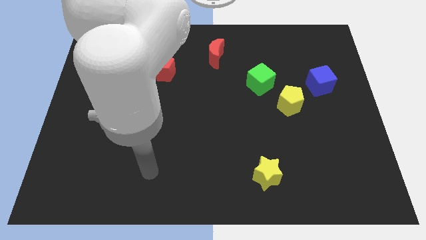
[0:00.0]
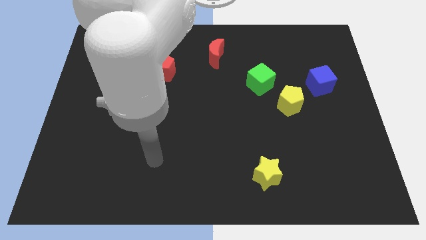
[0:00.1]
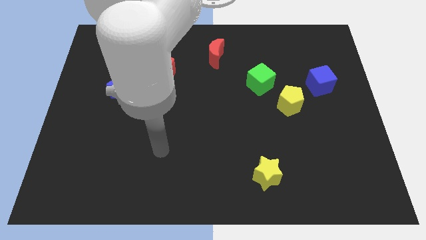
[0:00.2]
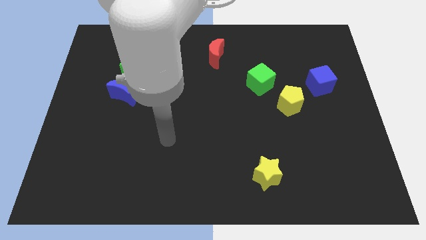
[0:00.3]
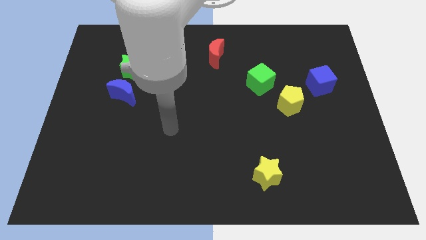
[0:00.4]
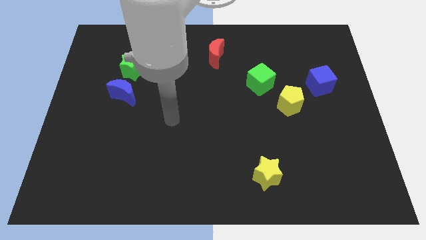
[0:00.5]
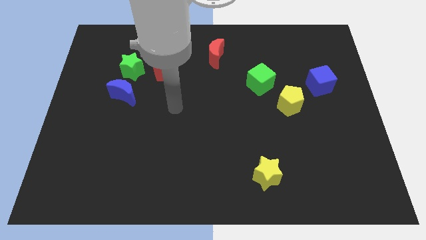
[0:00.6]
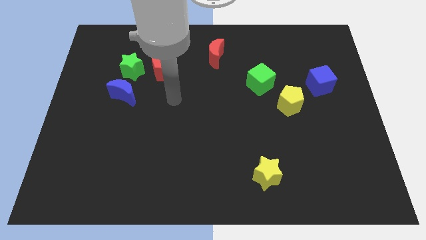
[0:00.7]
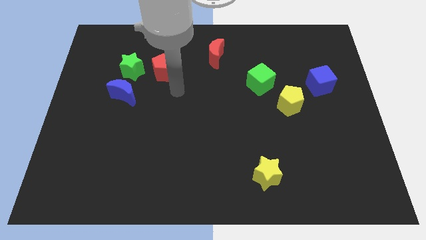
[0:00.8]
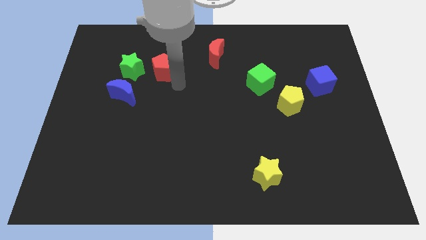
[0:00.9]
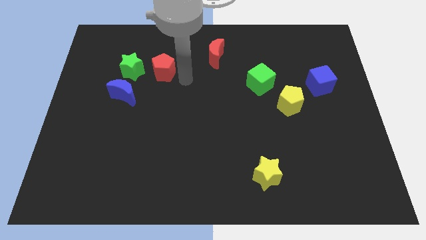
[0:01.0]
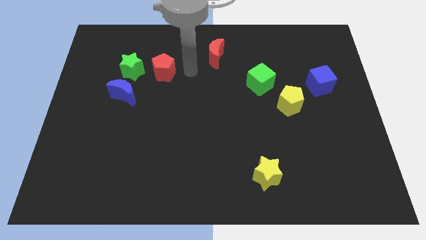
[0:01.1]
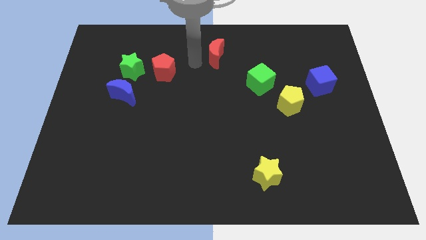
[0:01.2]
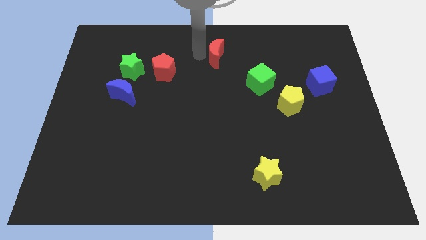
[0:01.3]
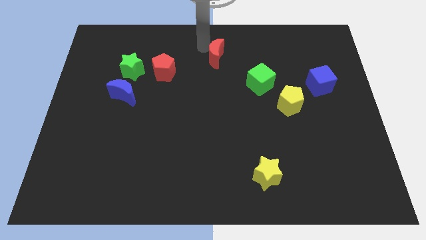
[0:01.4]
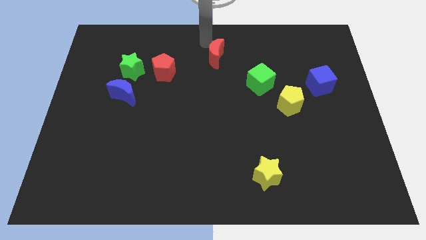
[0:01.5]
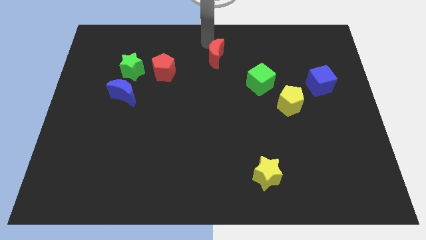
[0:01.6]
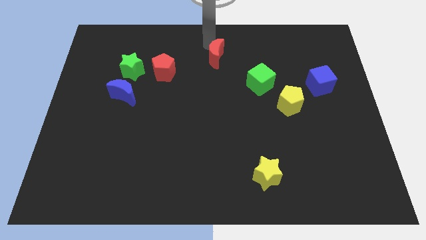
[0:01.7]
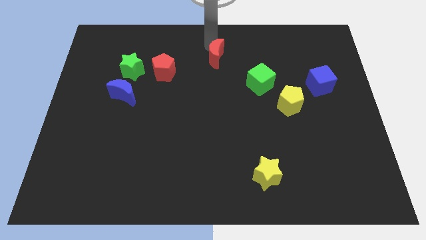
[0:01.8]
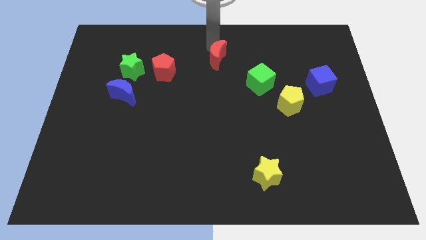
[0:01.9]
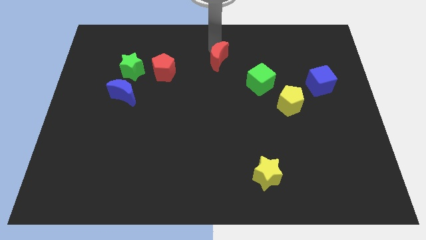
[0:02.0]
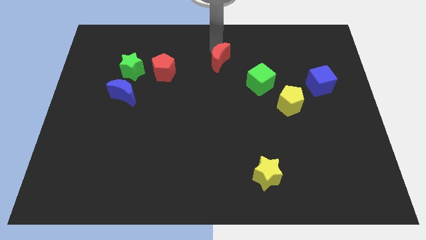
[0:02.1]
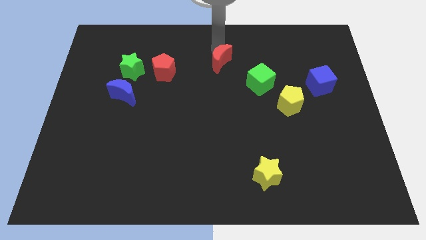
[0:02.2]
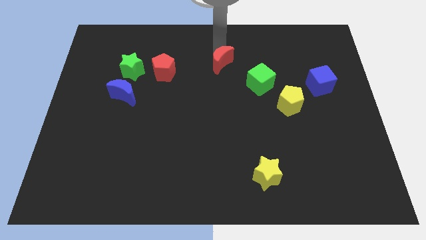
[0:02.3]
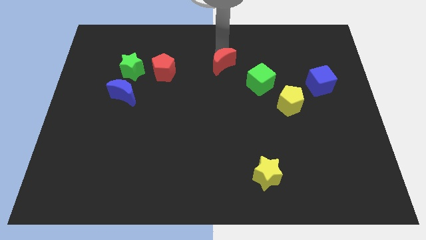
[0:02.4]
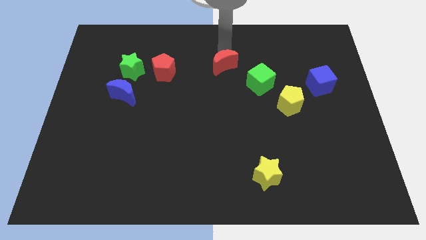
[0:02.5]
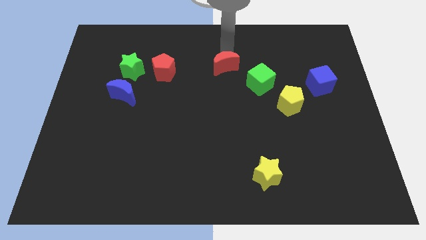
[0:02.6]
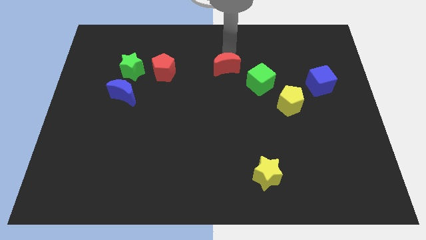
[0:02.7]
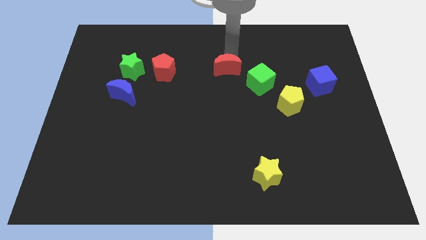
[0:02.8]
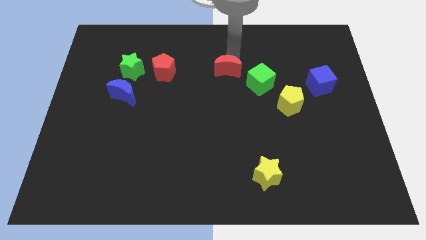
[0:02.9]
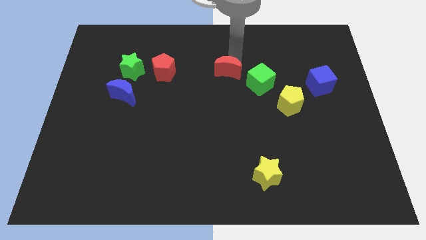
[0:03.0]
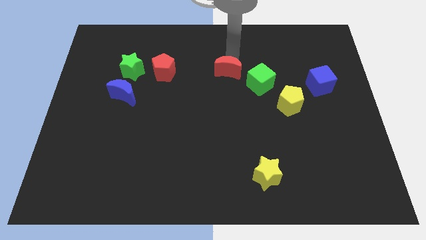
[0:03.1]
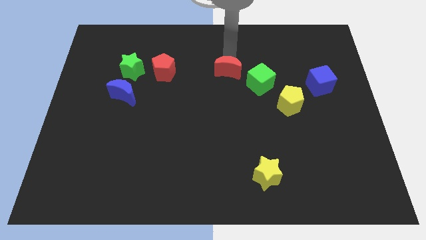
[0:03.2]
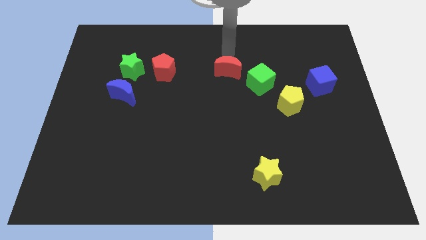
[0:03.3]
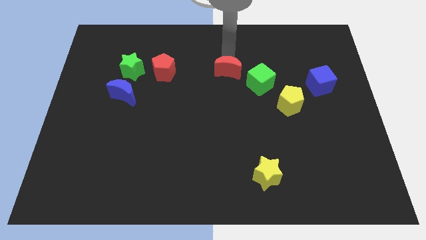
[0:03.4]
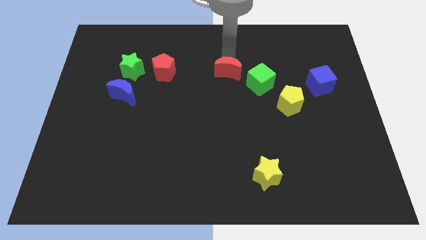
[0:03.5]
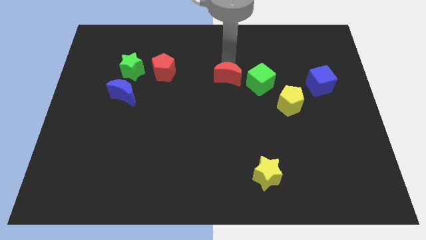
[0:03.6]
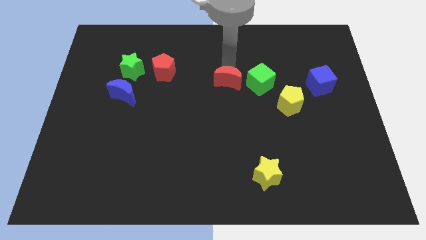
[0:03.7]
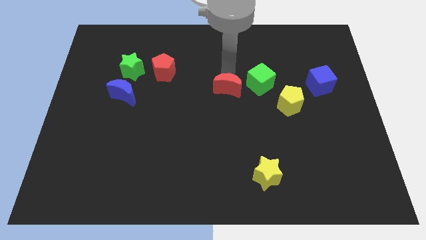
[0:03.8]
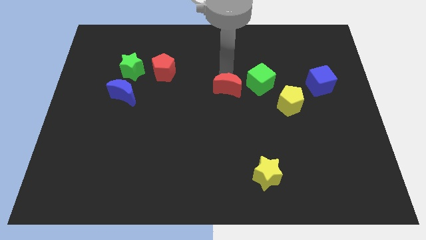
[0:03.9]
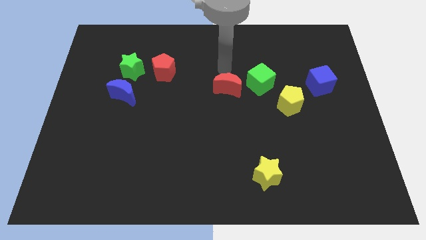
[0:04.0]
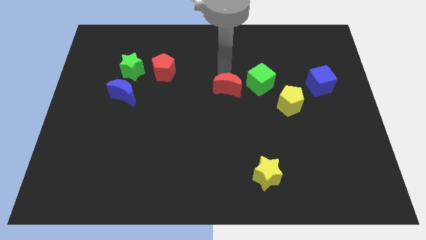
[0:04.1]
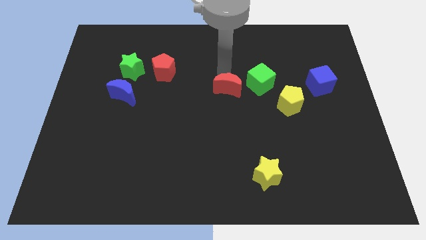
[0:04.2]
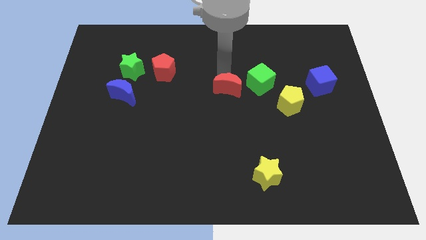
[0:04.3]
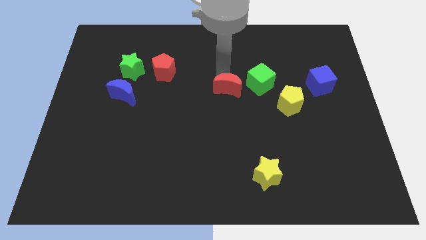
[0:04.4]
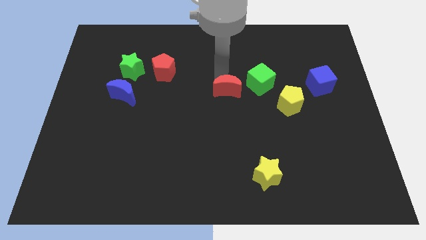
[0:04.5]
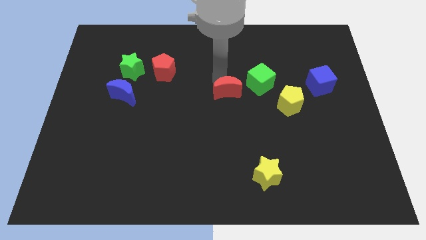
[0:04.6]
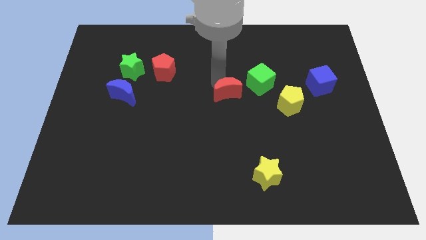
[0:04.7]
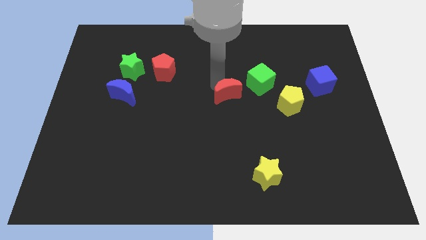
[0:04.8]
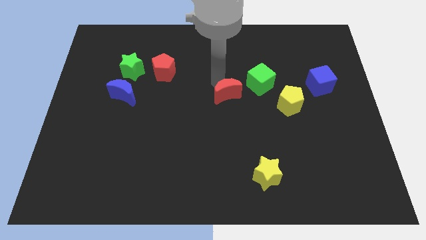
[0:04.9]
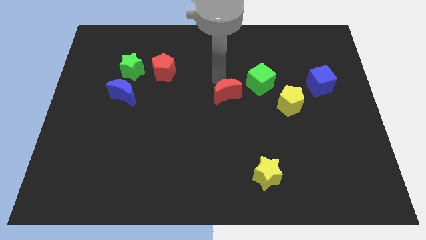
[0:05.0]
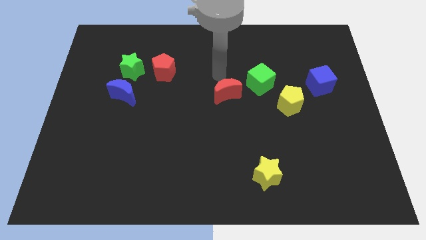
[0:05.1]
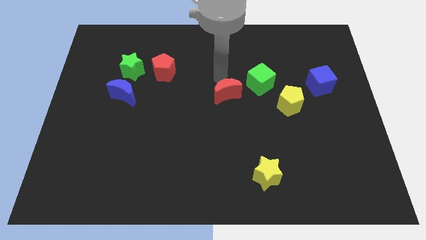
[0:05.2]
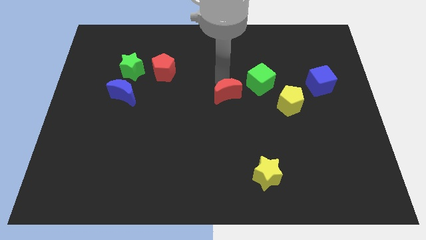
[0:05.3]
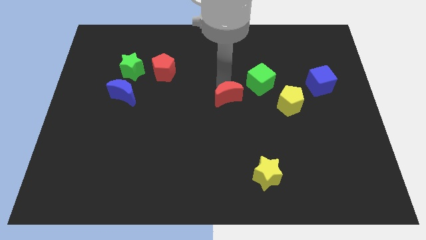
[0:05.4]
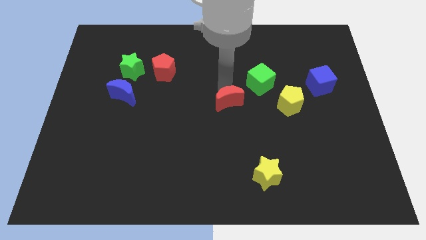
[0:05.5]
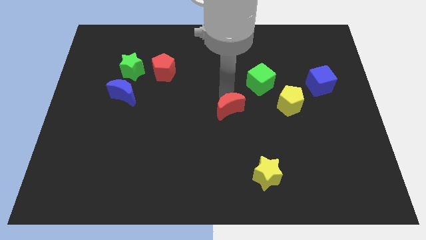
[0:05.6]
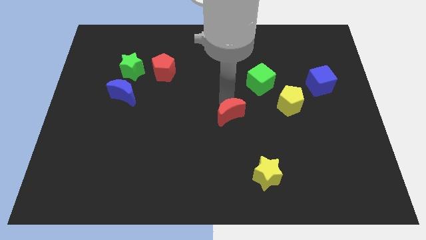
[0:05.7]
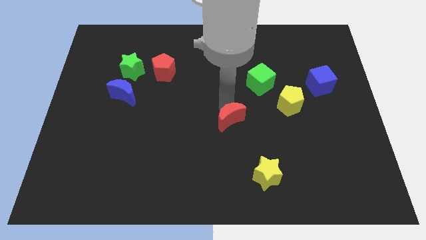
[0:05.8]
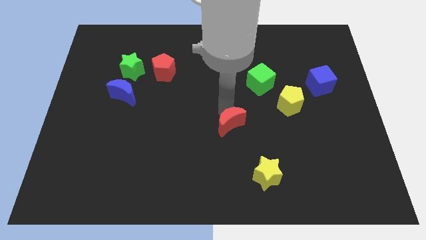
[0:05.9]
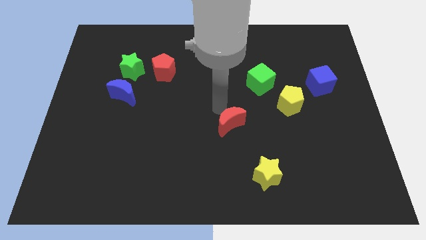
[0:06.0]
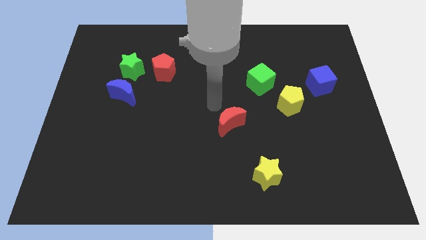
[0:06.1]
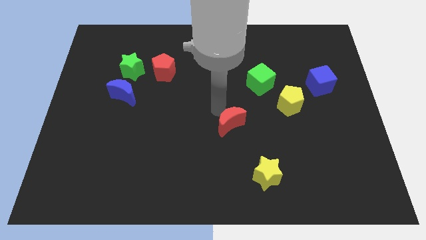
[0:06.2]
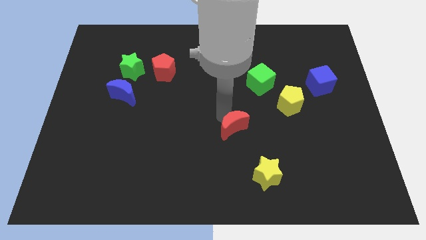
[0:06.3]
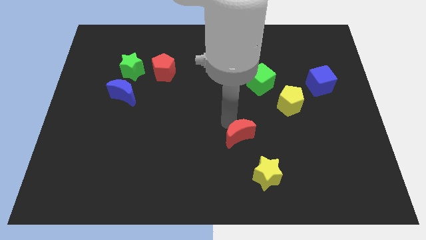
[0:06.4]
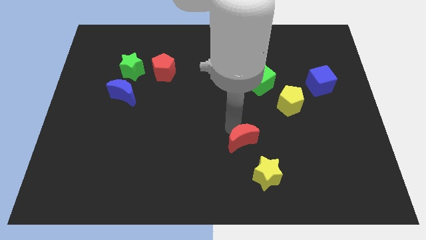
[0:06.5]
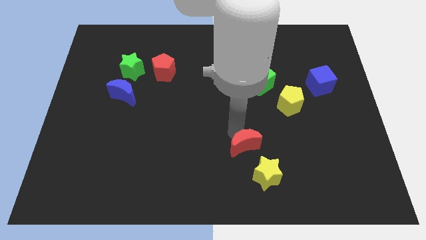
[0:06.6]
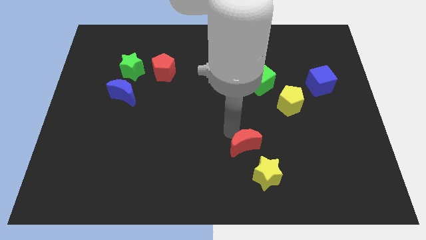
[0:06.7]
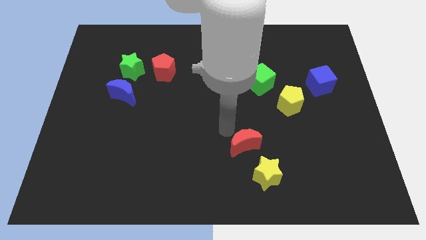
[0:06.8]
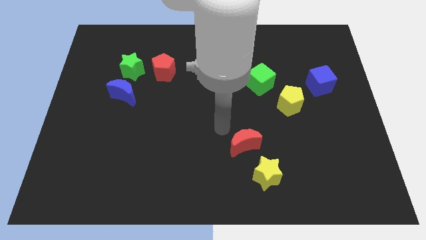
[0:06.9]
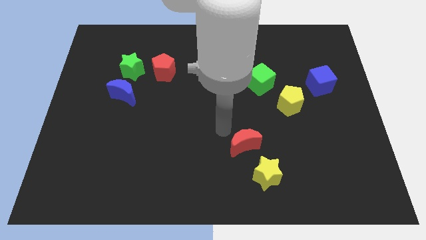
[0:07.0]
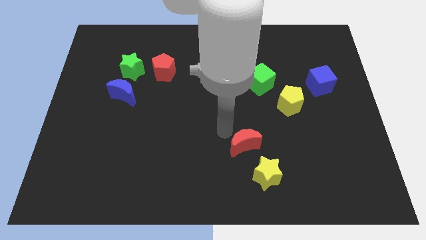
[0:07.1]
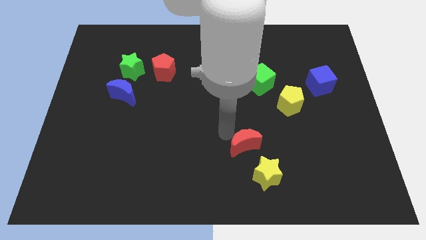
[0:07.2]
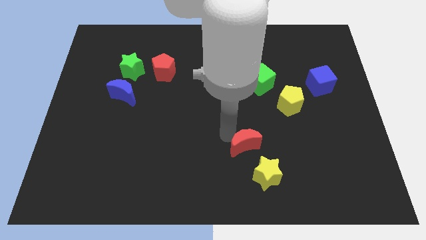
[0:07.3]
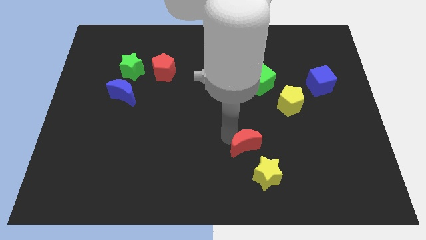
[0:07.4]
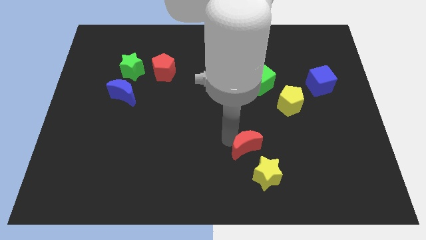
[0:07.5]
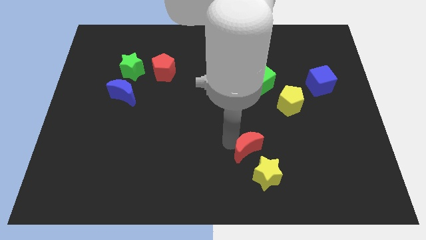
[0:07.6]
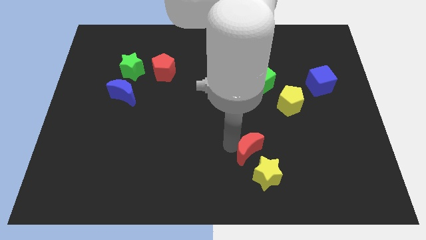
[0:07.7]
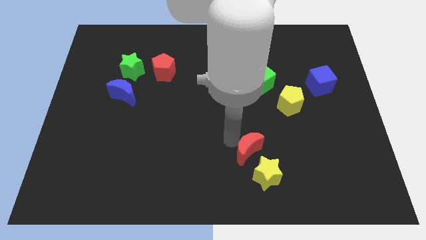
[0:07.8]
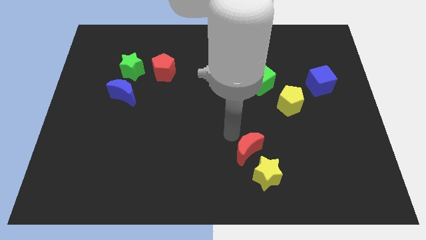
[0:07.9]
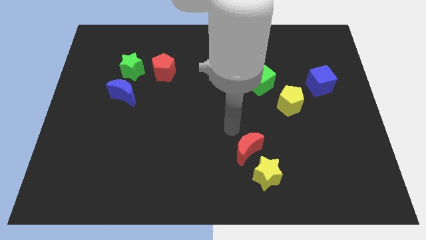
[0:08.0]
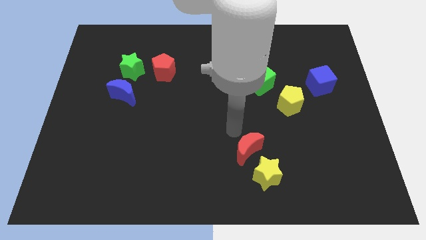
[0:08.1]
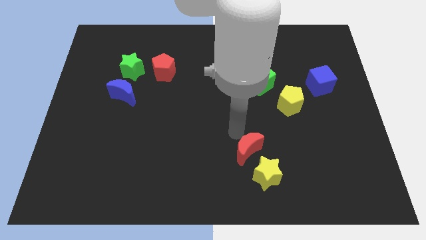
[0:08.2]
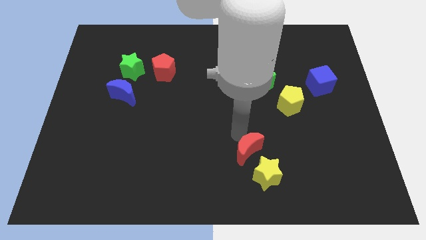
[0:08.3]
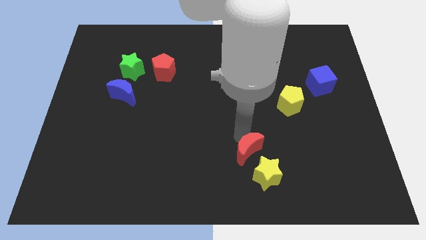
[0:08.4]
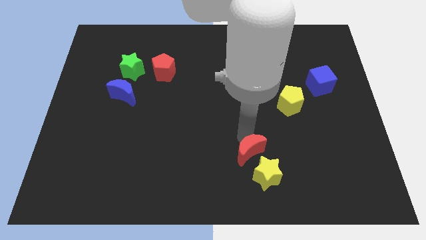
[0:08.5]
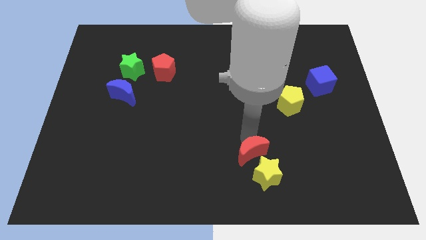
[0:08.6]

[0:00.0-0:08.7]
slide the red moon next to the yellow star
